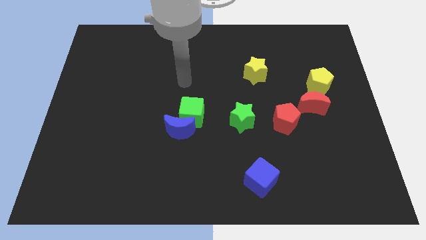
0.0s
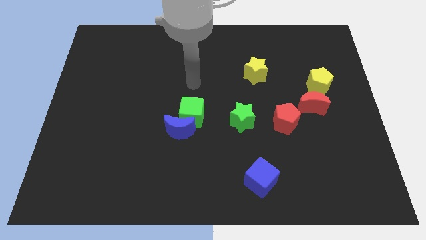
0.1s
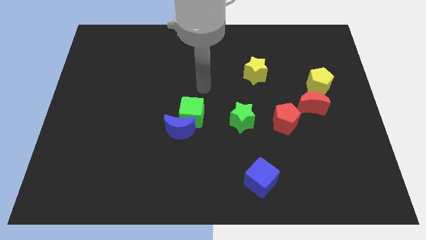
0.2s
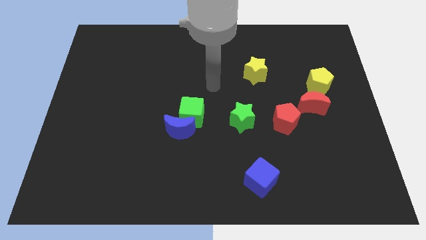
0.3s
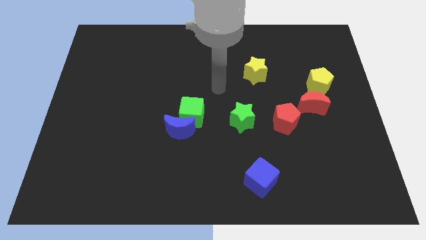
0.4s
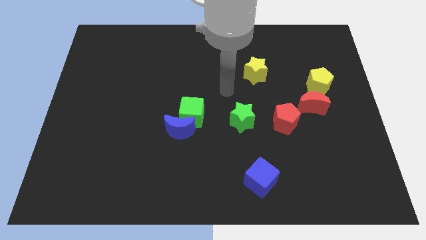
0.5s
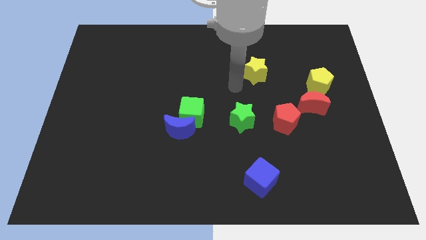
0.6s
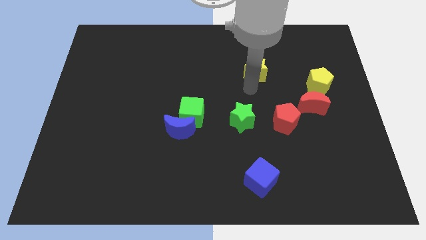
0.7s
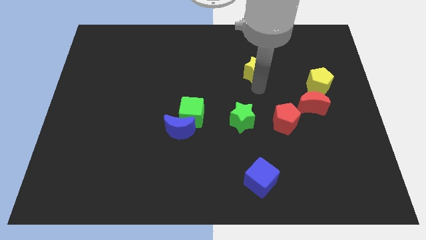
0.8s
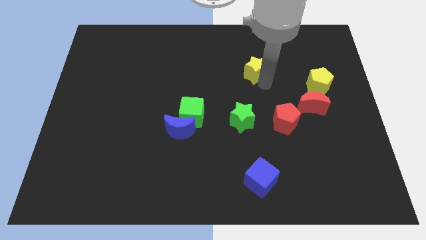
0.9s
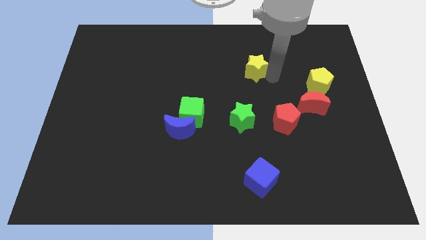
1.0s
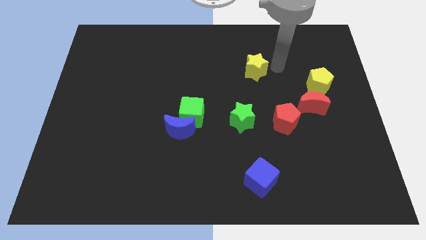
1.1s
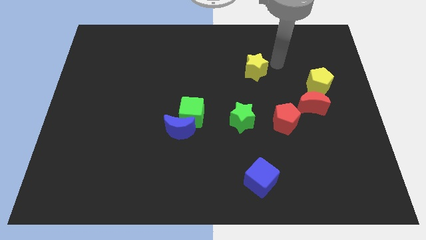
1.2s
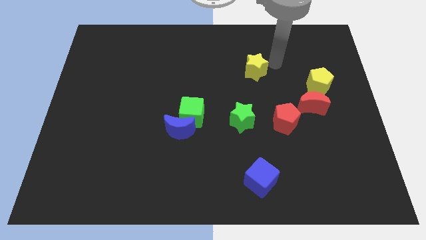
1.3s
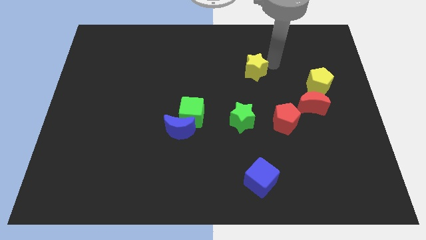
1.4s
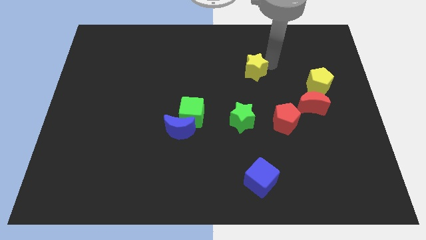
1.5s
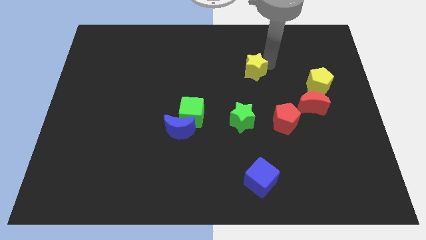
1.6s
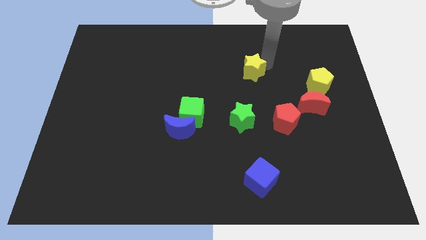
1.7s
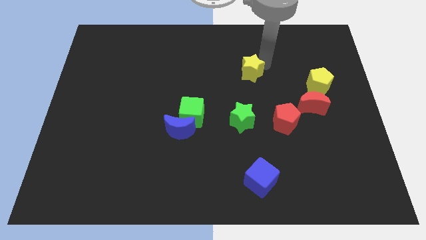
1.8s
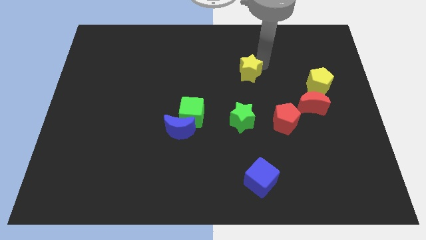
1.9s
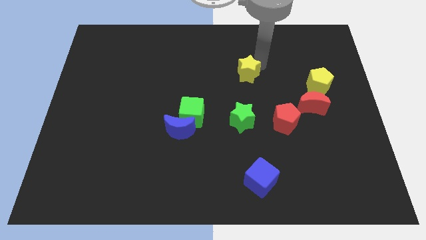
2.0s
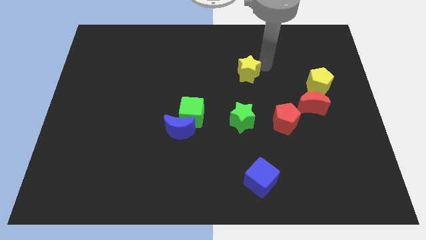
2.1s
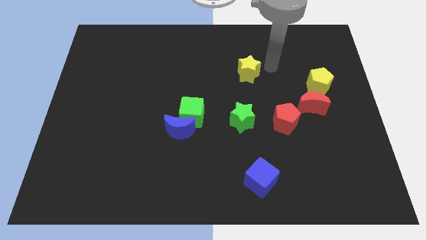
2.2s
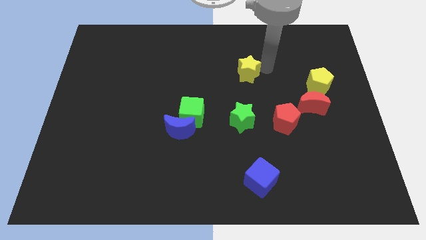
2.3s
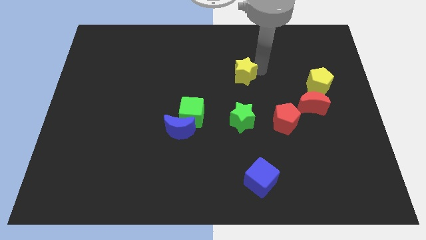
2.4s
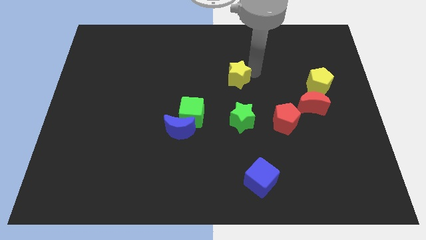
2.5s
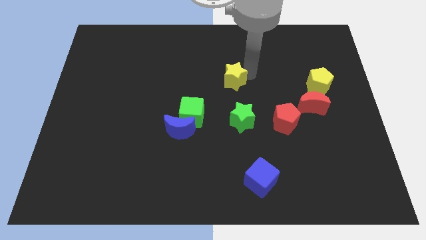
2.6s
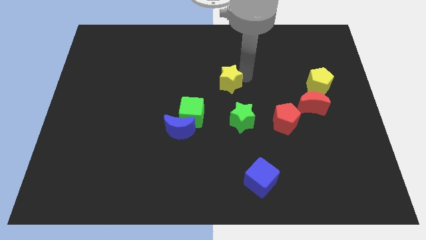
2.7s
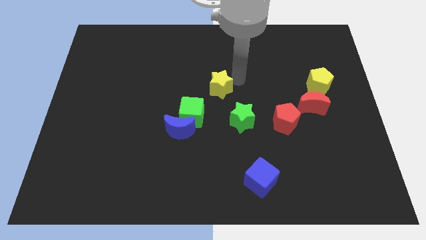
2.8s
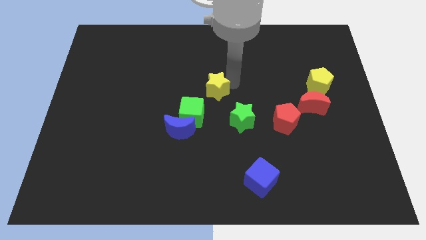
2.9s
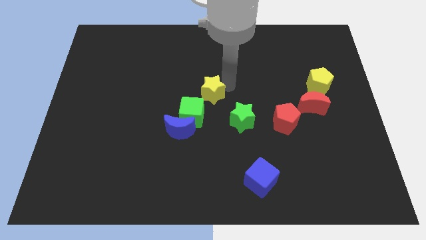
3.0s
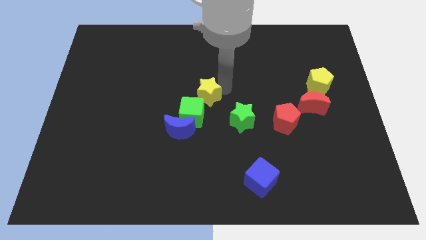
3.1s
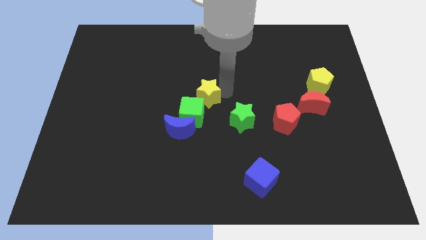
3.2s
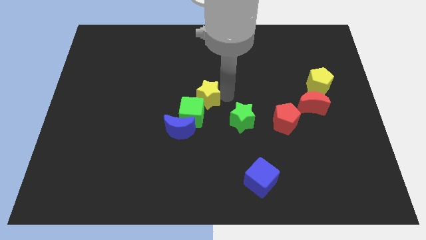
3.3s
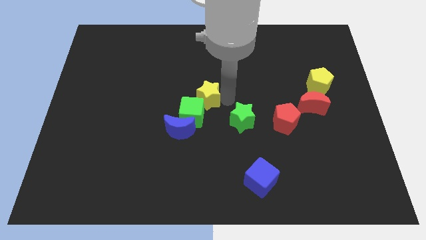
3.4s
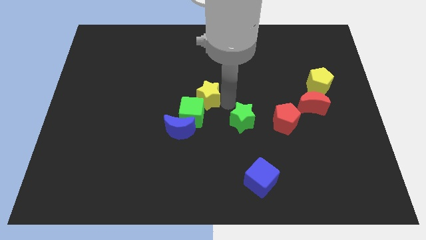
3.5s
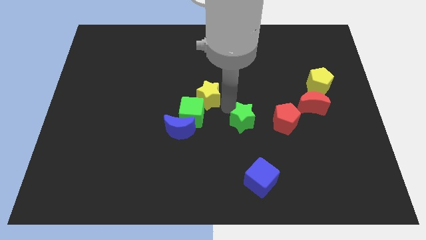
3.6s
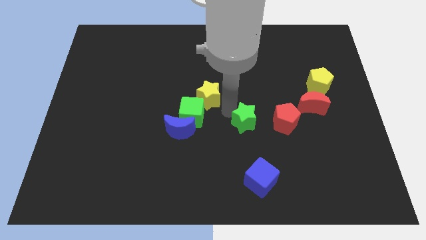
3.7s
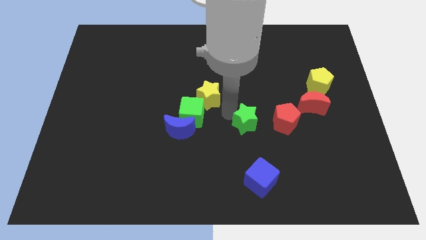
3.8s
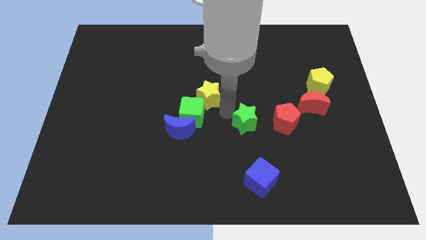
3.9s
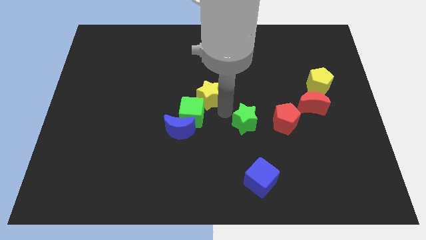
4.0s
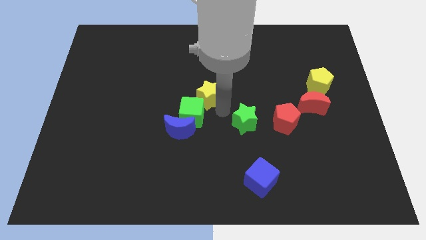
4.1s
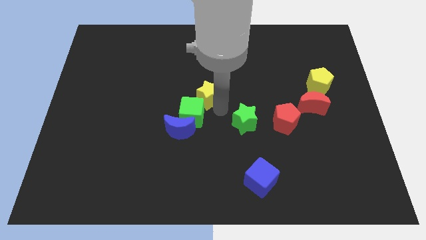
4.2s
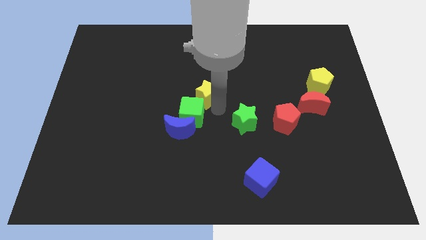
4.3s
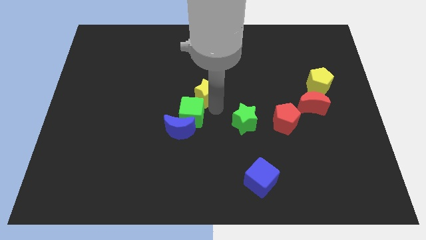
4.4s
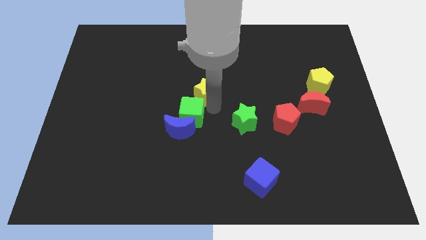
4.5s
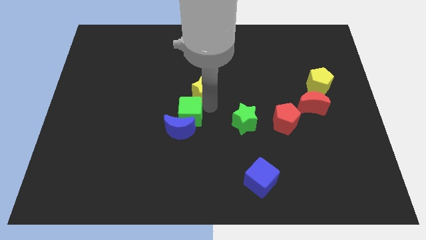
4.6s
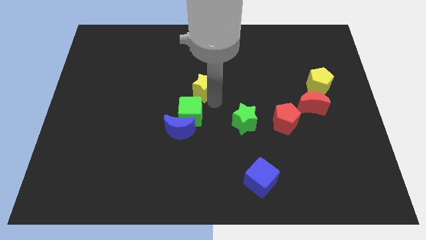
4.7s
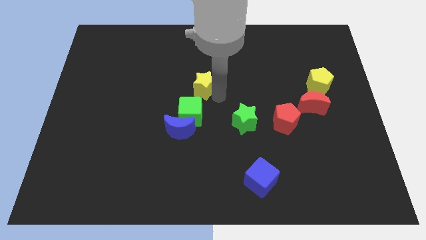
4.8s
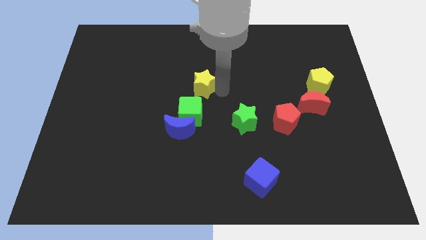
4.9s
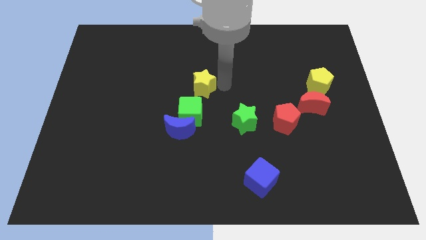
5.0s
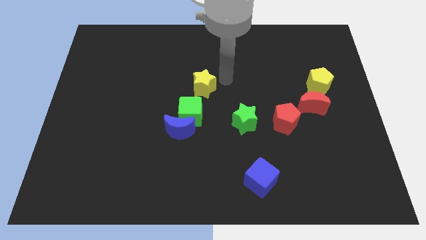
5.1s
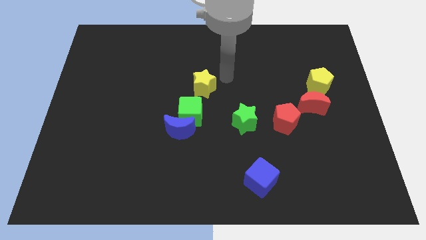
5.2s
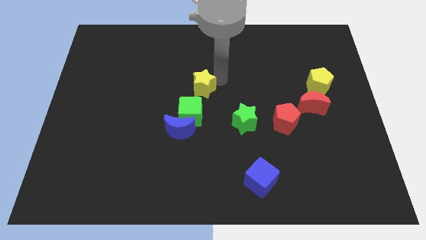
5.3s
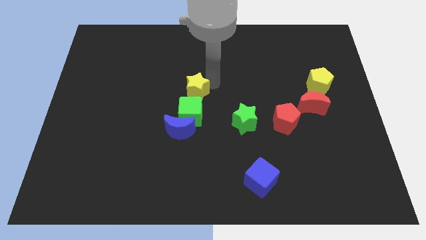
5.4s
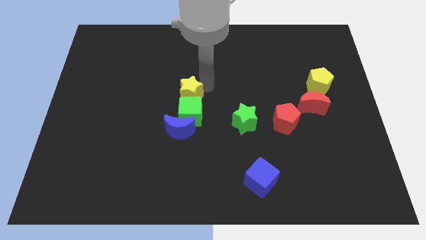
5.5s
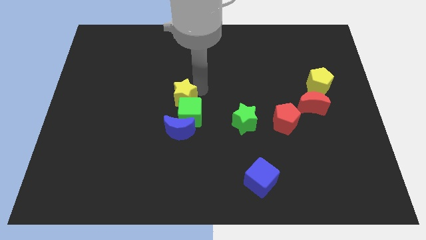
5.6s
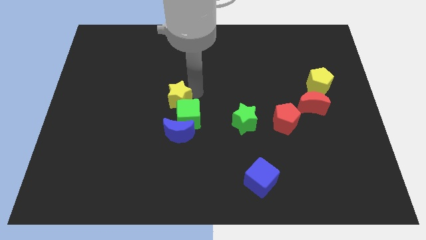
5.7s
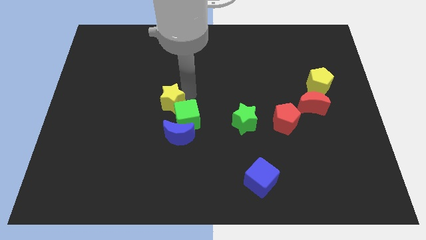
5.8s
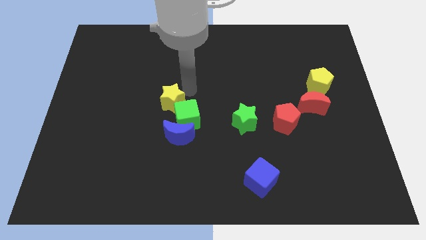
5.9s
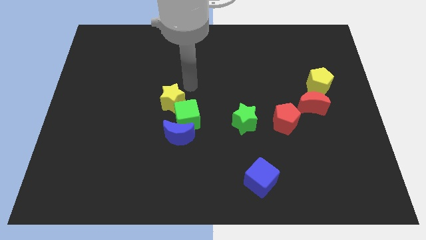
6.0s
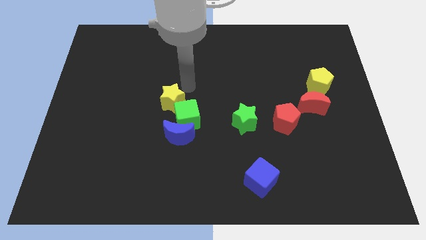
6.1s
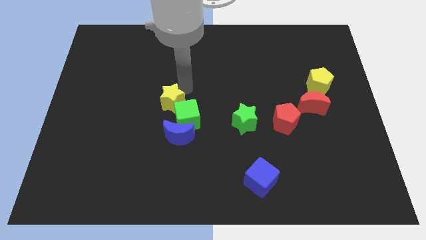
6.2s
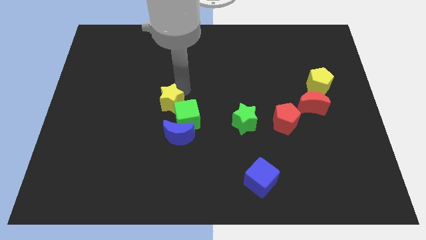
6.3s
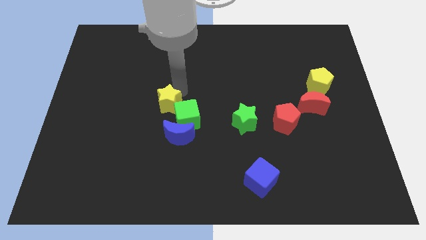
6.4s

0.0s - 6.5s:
push the yellow star to the top left of the blue moon
